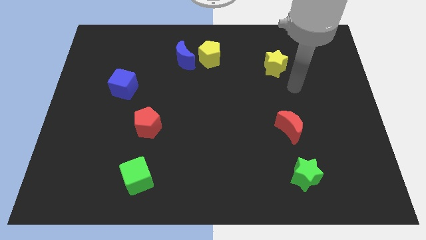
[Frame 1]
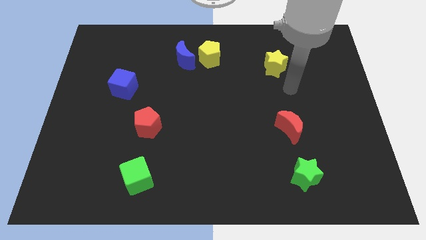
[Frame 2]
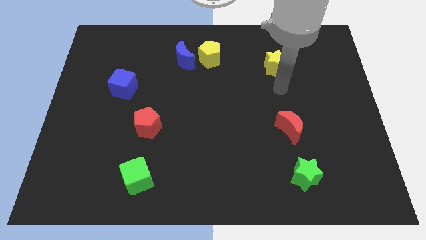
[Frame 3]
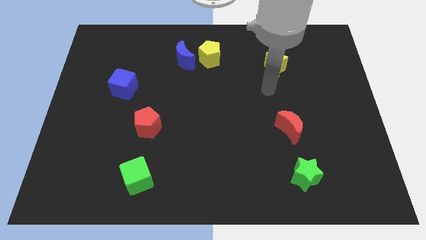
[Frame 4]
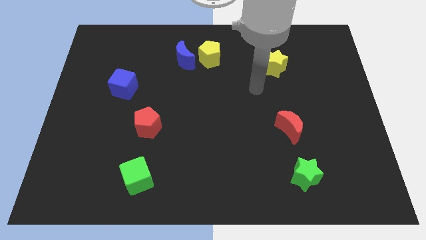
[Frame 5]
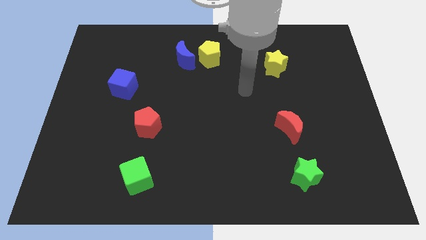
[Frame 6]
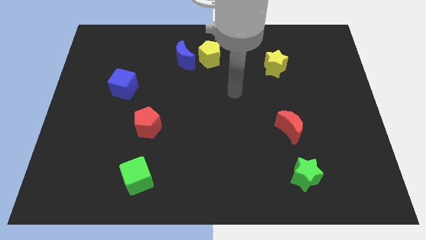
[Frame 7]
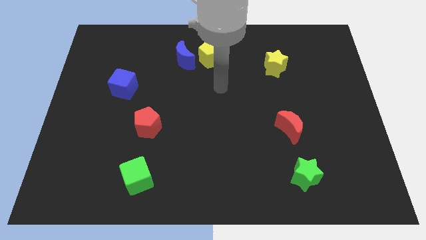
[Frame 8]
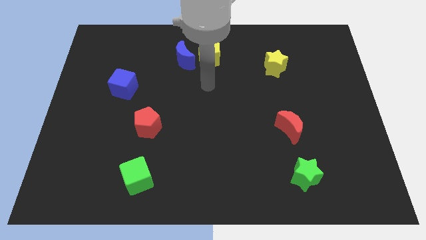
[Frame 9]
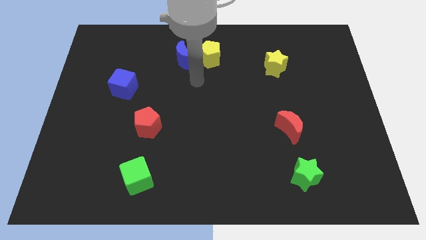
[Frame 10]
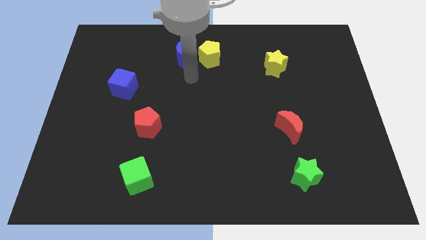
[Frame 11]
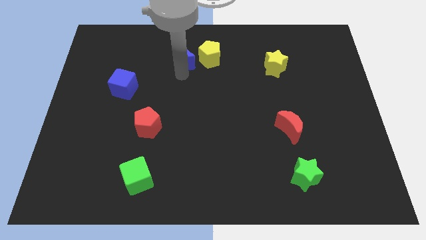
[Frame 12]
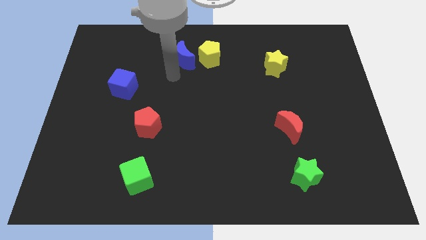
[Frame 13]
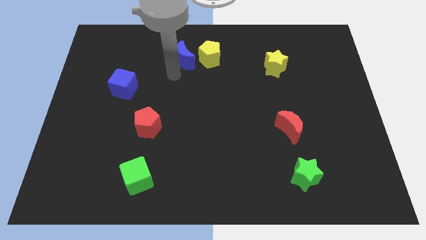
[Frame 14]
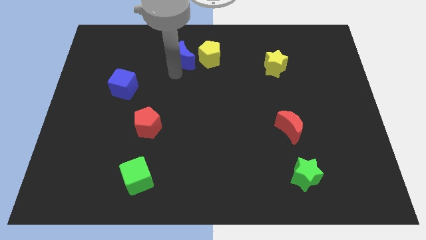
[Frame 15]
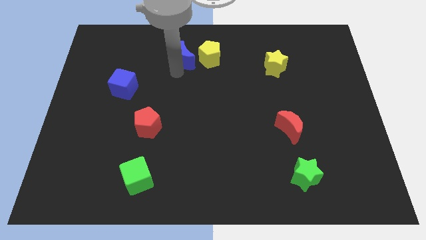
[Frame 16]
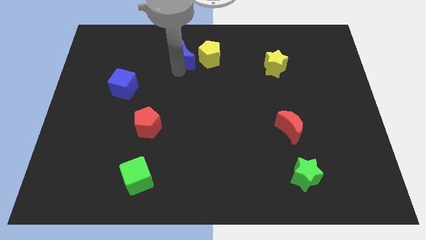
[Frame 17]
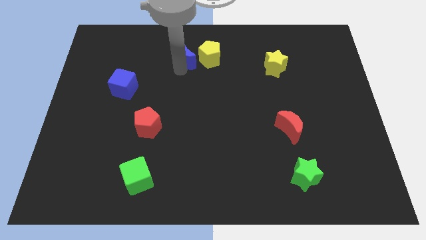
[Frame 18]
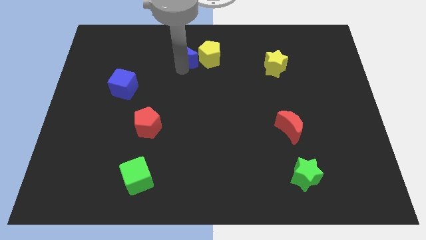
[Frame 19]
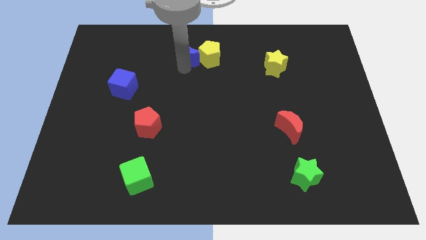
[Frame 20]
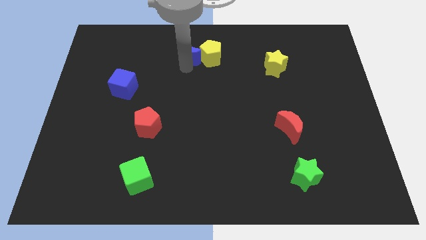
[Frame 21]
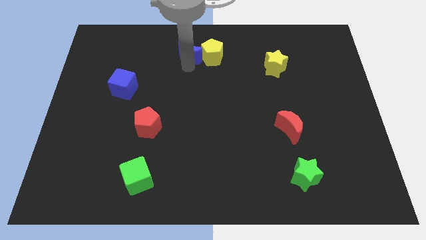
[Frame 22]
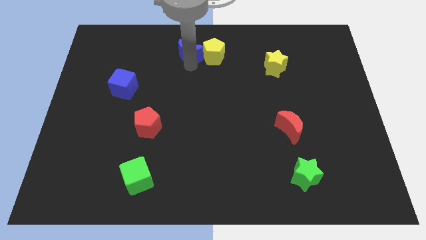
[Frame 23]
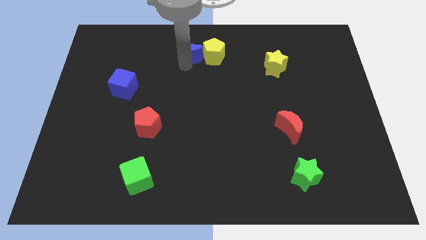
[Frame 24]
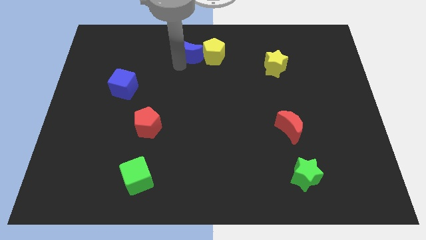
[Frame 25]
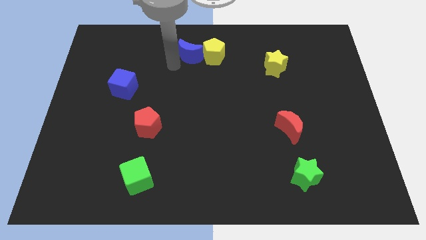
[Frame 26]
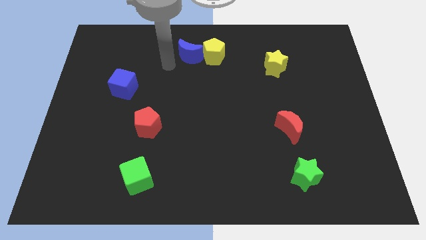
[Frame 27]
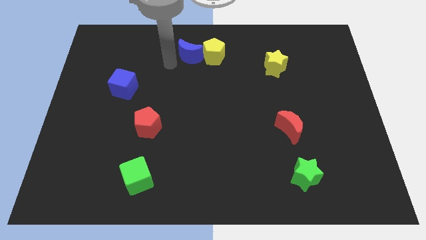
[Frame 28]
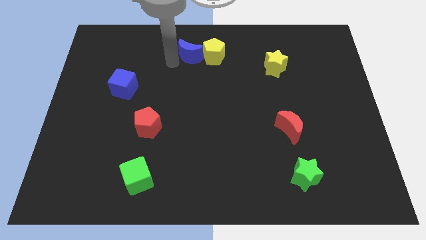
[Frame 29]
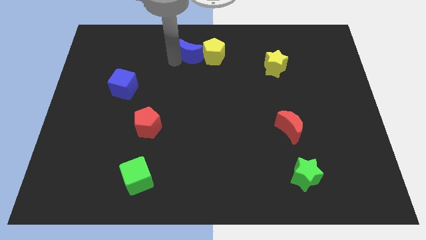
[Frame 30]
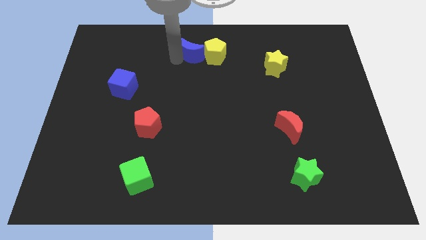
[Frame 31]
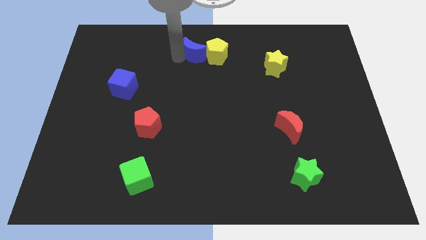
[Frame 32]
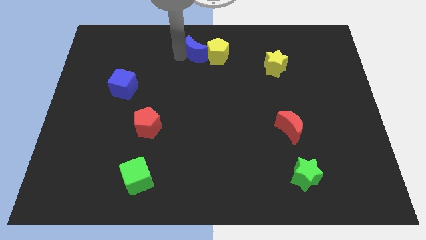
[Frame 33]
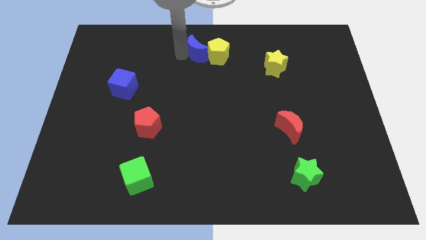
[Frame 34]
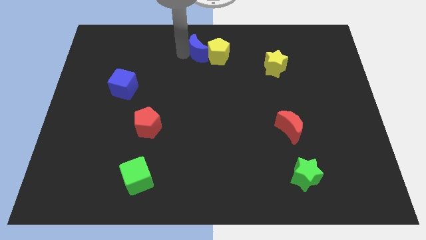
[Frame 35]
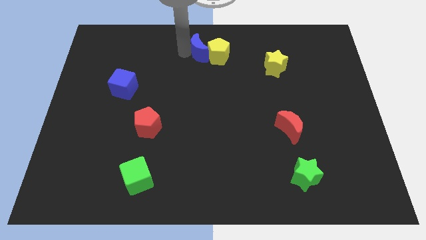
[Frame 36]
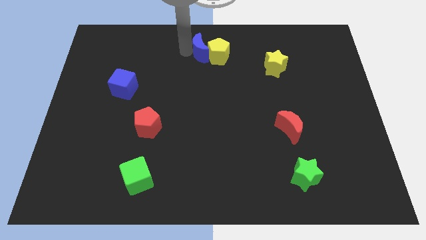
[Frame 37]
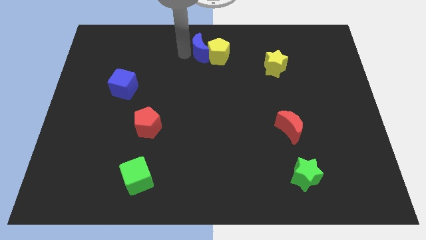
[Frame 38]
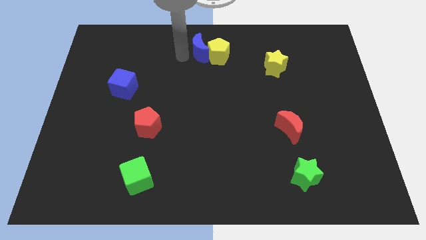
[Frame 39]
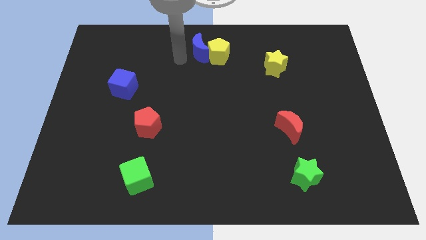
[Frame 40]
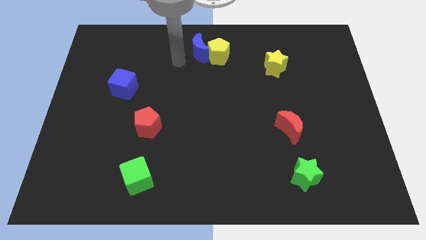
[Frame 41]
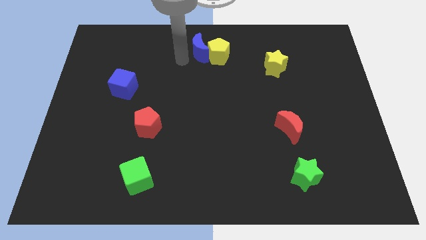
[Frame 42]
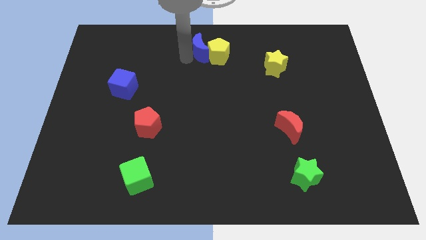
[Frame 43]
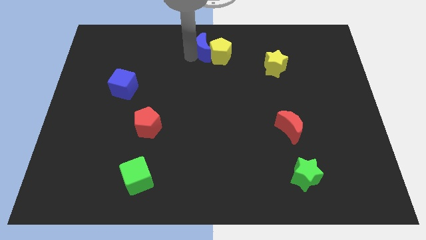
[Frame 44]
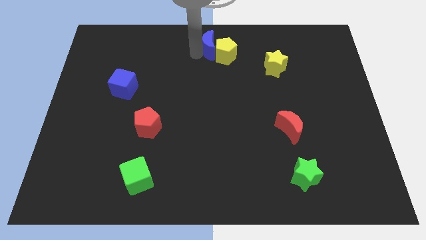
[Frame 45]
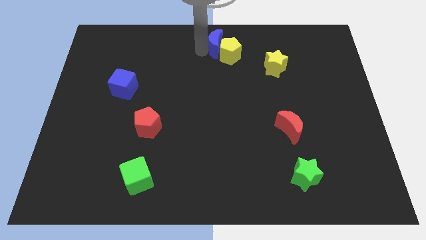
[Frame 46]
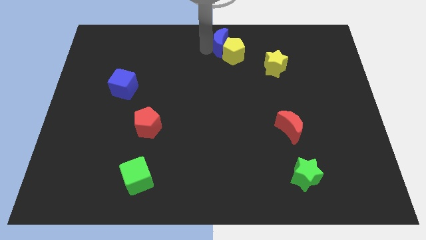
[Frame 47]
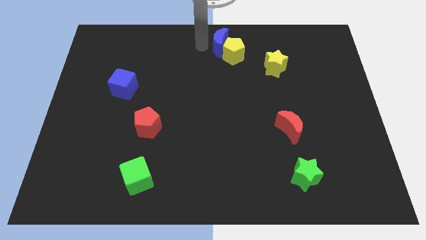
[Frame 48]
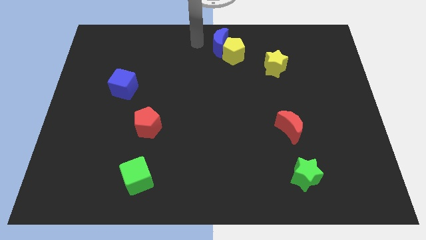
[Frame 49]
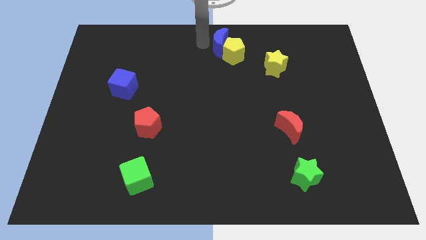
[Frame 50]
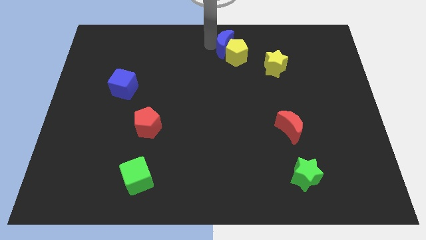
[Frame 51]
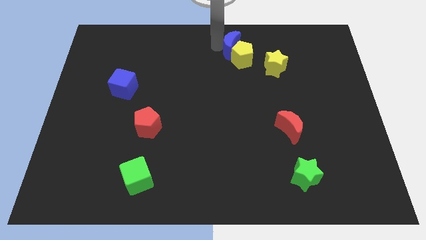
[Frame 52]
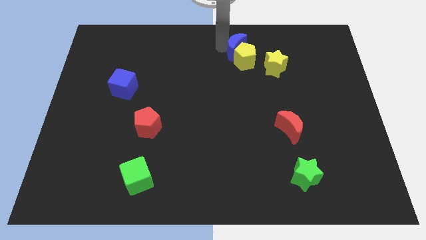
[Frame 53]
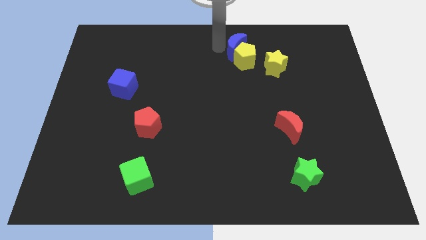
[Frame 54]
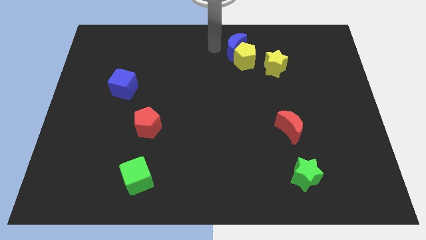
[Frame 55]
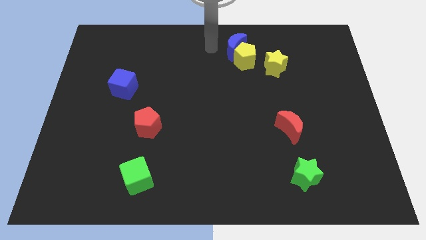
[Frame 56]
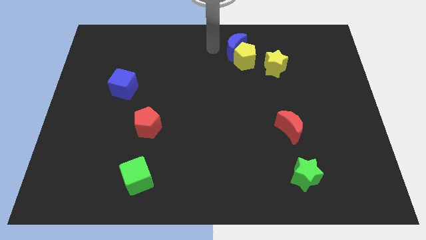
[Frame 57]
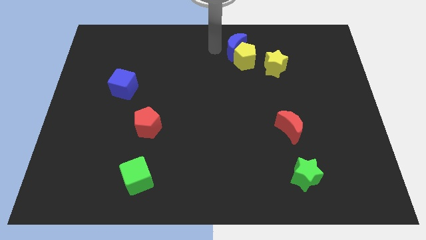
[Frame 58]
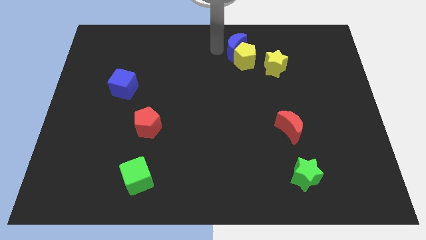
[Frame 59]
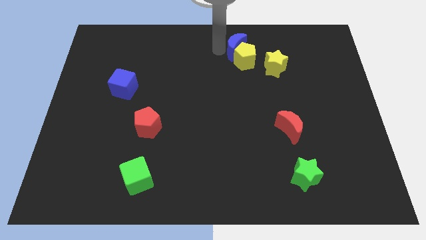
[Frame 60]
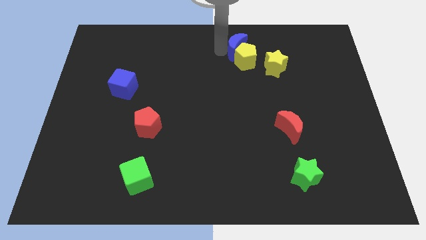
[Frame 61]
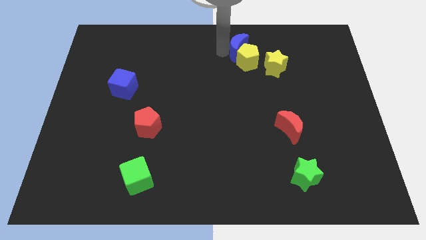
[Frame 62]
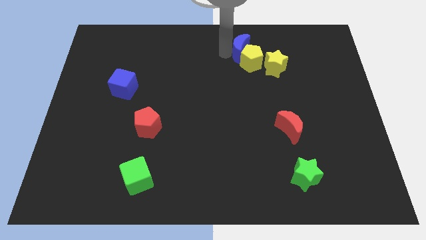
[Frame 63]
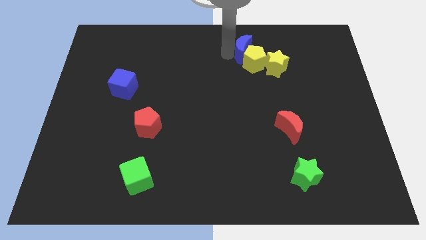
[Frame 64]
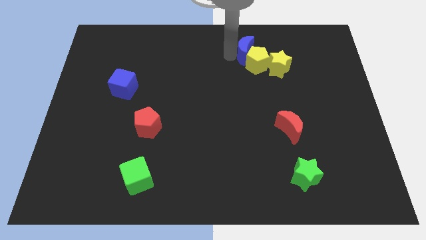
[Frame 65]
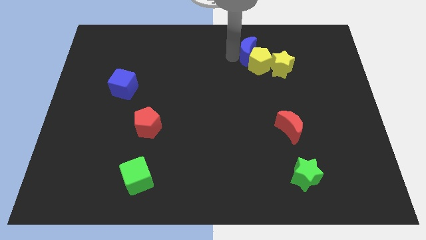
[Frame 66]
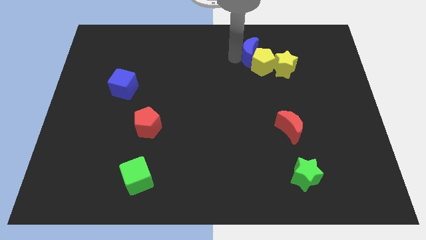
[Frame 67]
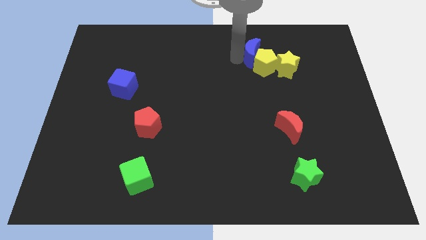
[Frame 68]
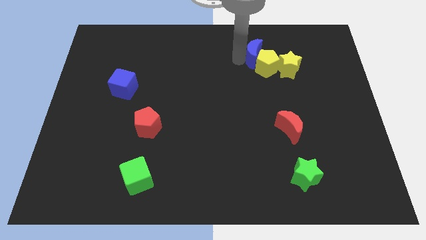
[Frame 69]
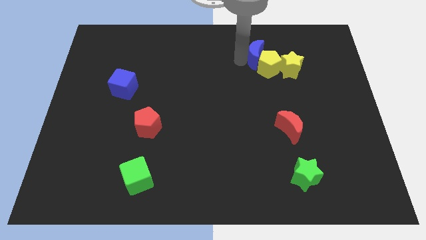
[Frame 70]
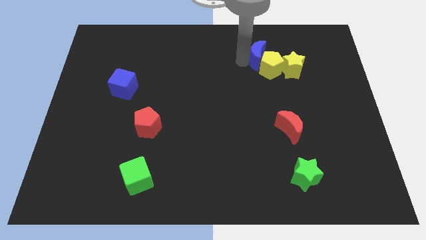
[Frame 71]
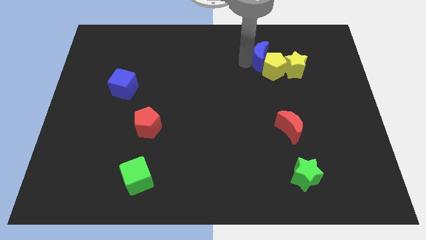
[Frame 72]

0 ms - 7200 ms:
push the blue moon to the right

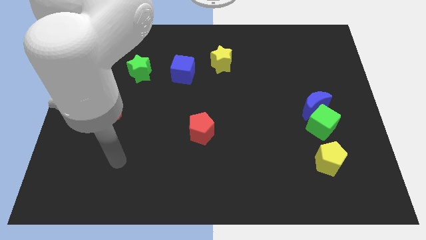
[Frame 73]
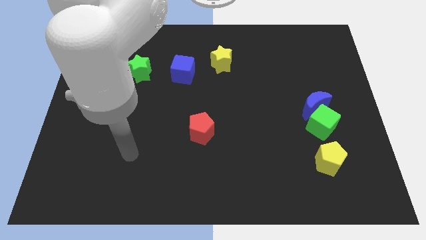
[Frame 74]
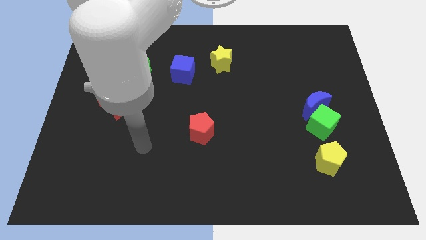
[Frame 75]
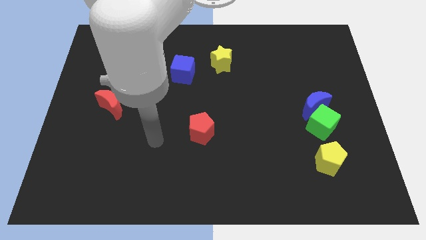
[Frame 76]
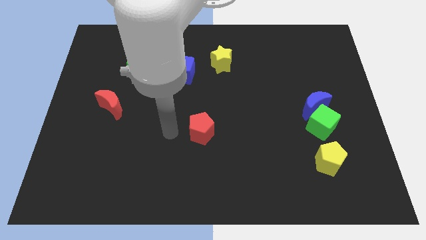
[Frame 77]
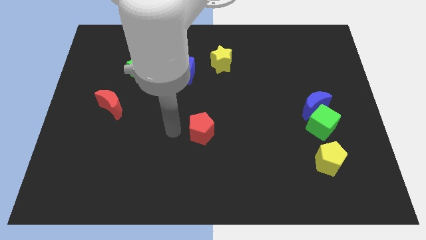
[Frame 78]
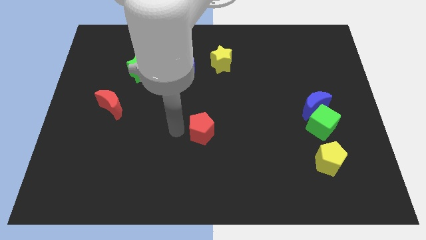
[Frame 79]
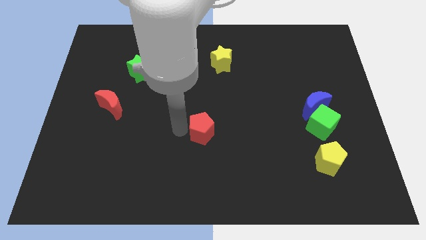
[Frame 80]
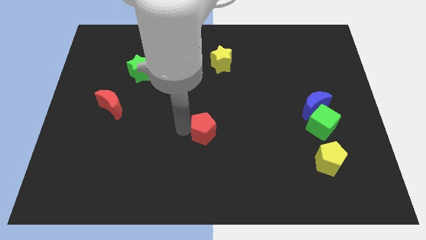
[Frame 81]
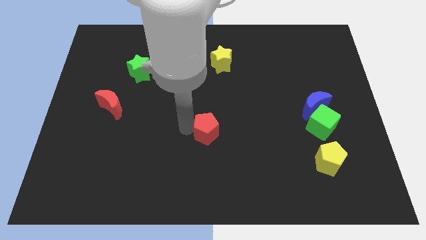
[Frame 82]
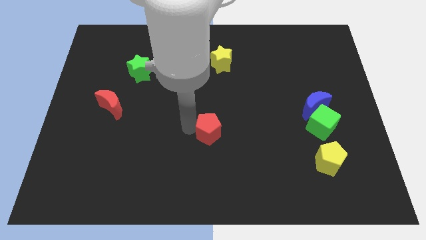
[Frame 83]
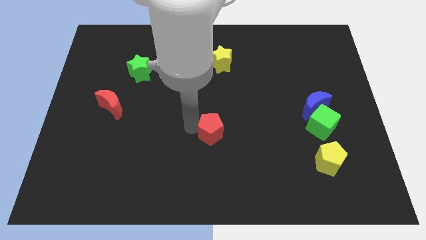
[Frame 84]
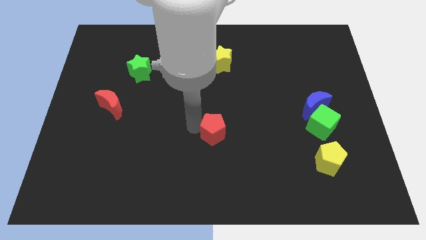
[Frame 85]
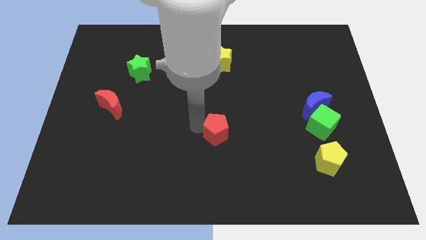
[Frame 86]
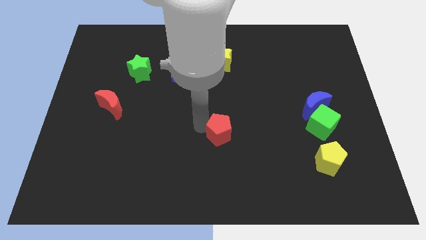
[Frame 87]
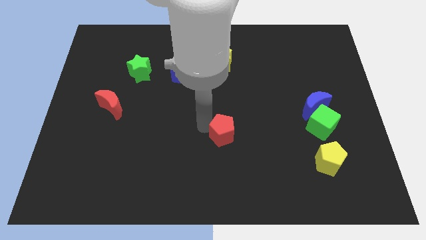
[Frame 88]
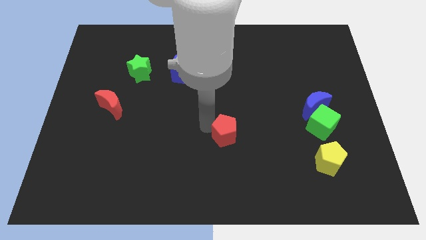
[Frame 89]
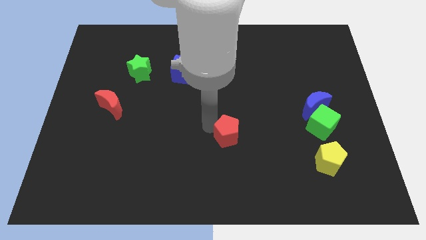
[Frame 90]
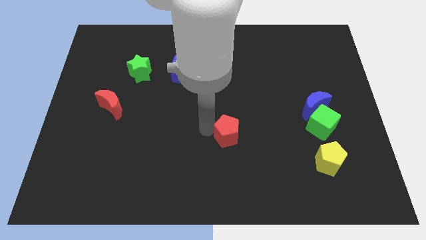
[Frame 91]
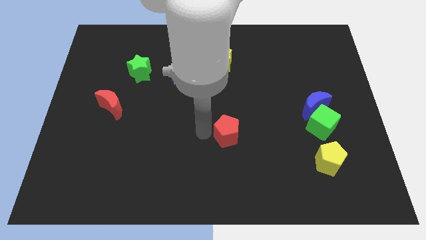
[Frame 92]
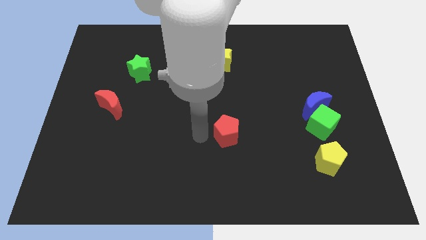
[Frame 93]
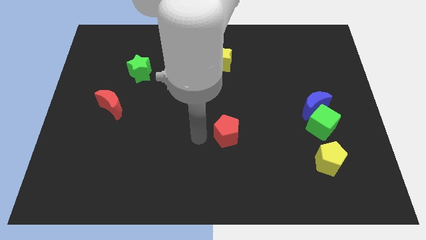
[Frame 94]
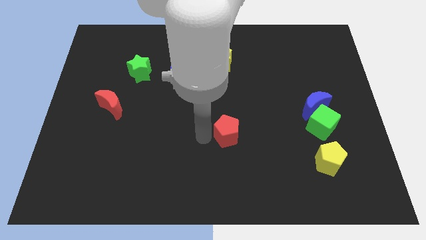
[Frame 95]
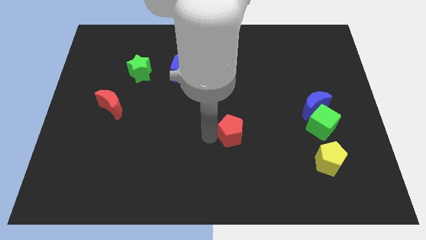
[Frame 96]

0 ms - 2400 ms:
slide the red pentagon right a little
